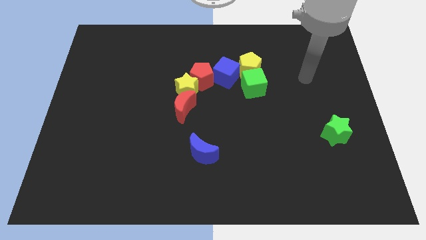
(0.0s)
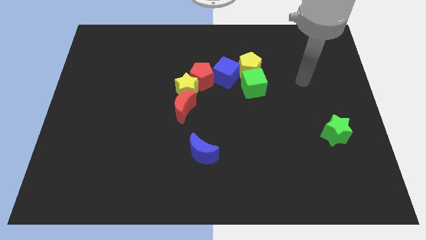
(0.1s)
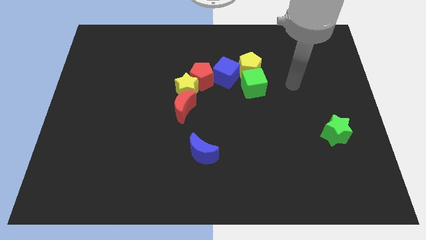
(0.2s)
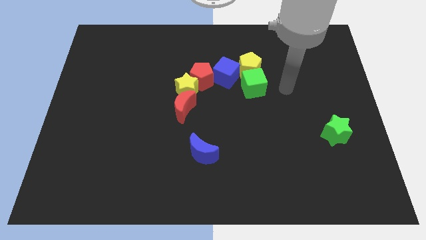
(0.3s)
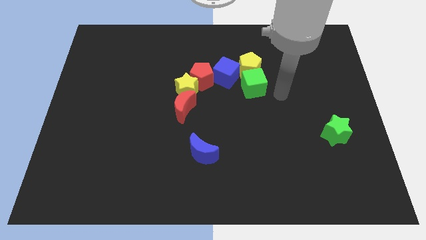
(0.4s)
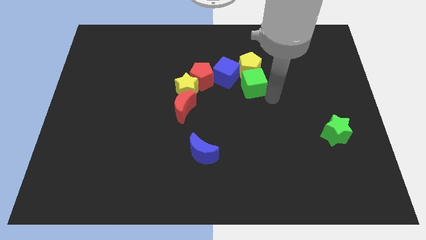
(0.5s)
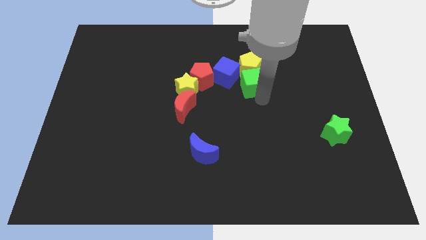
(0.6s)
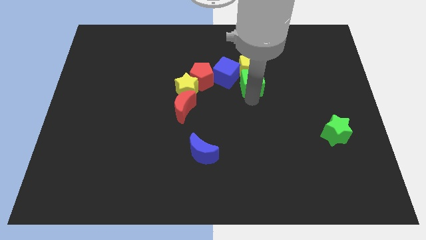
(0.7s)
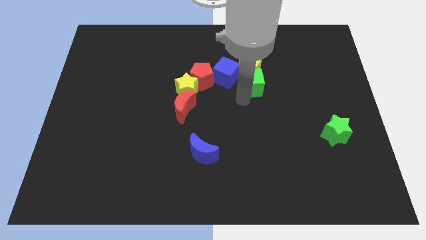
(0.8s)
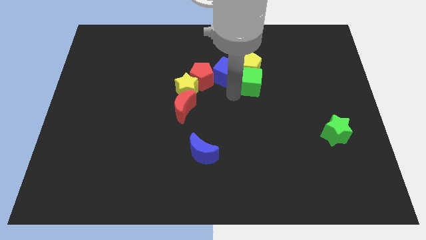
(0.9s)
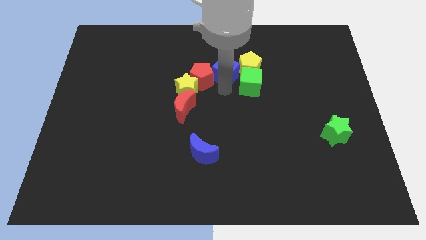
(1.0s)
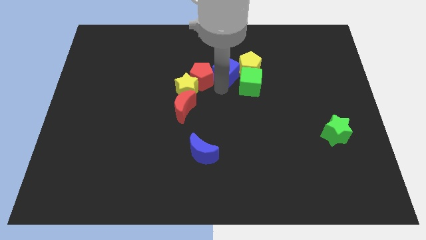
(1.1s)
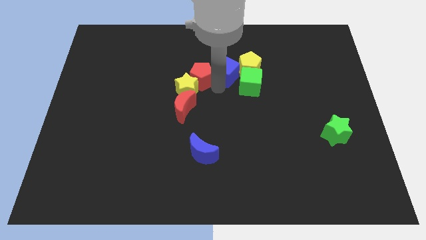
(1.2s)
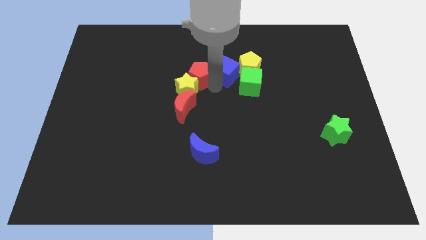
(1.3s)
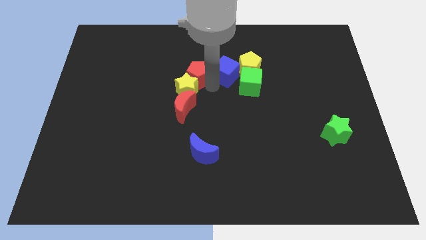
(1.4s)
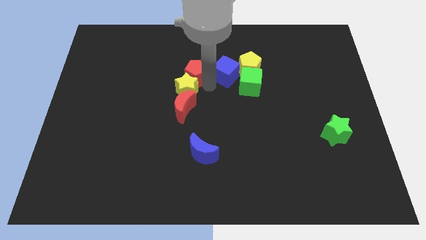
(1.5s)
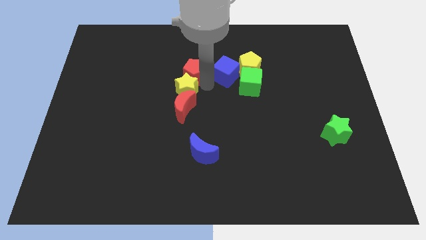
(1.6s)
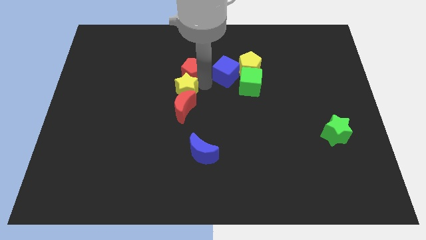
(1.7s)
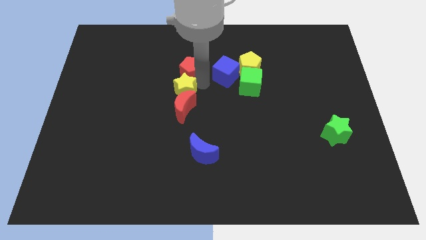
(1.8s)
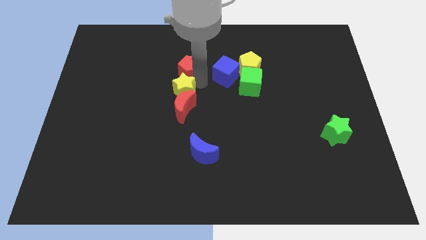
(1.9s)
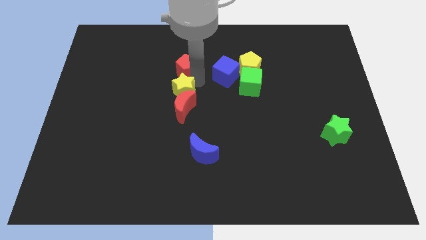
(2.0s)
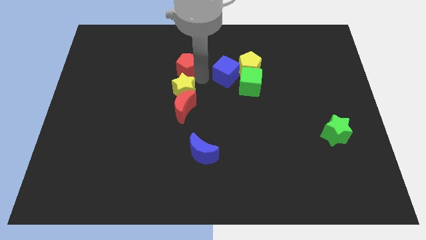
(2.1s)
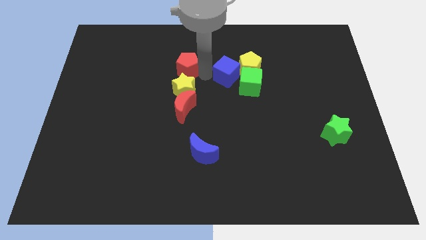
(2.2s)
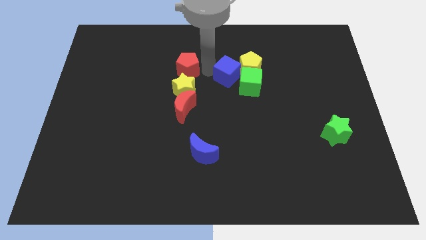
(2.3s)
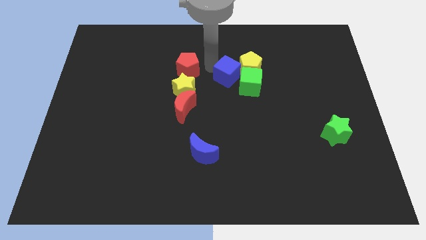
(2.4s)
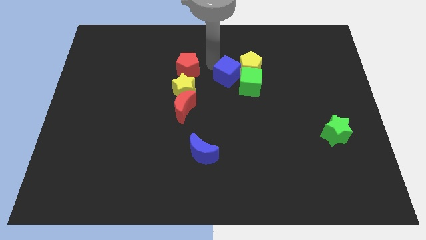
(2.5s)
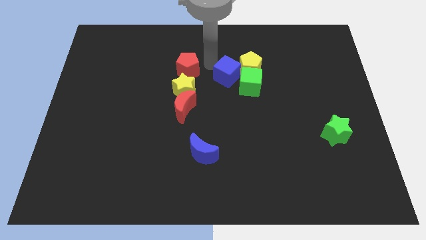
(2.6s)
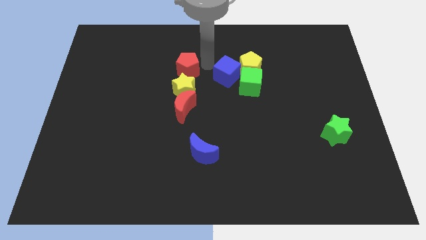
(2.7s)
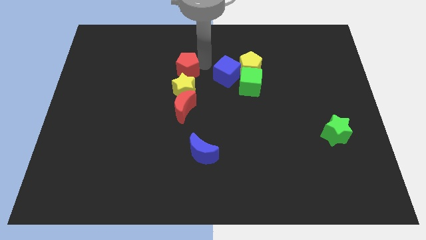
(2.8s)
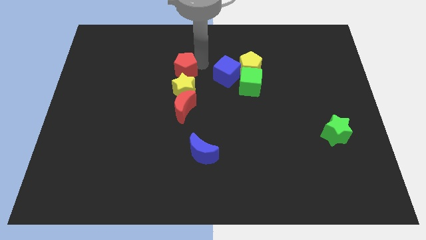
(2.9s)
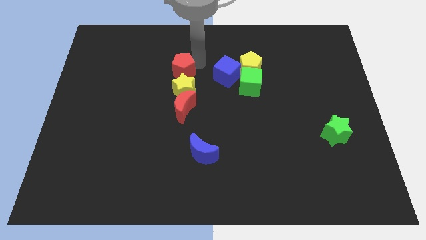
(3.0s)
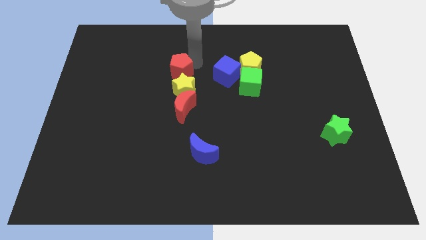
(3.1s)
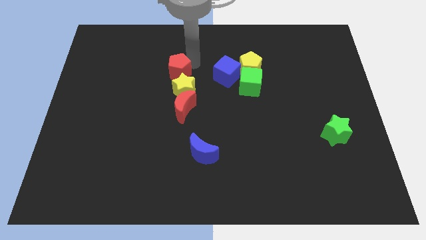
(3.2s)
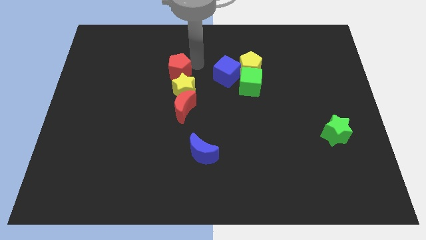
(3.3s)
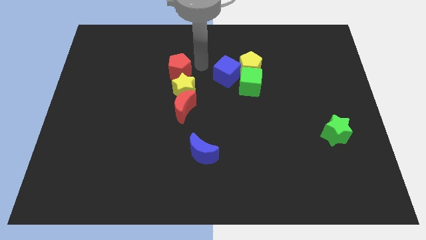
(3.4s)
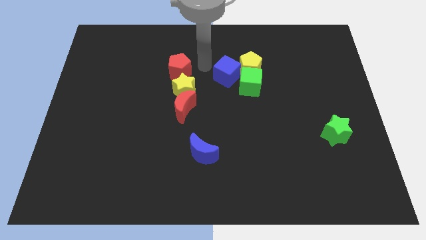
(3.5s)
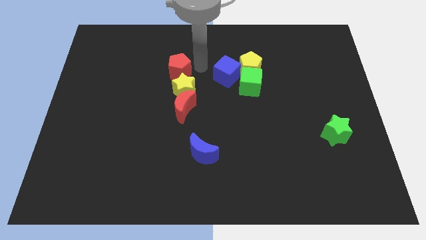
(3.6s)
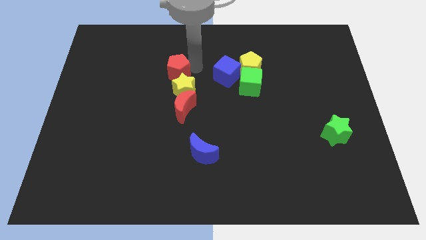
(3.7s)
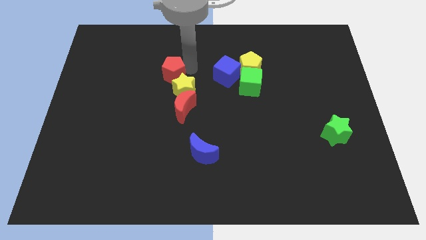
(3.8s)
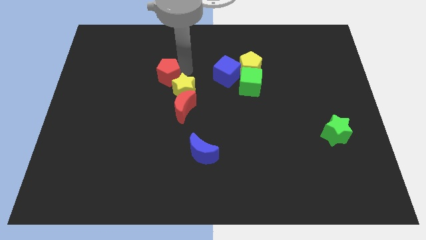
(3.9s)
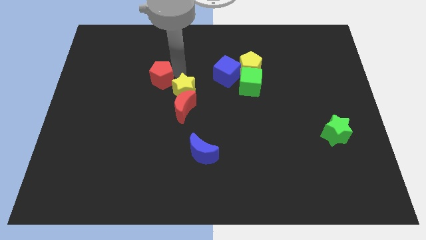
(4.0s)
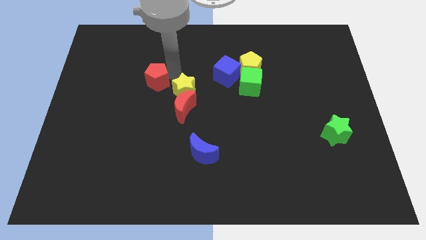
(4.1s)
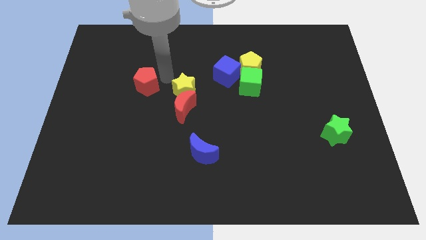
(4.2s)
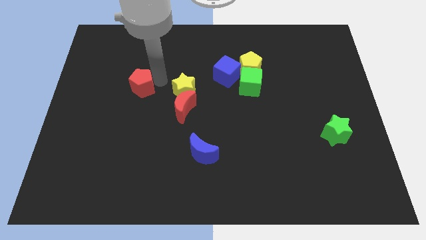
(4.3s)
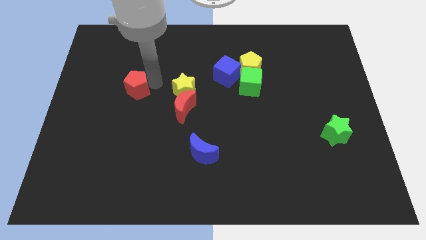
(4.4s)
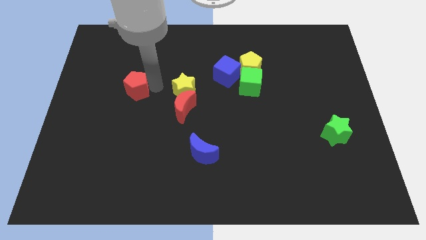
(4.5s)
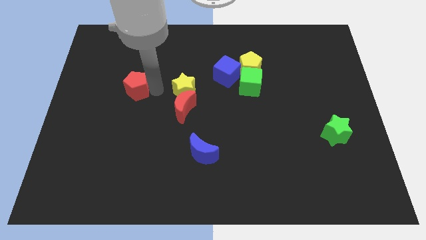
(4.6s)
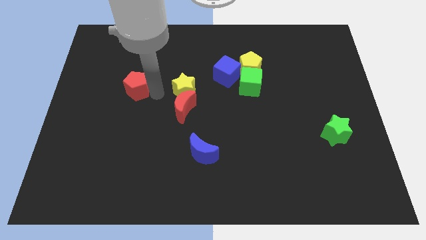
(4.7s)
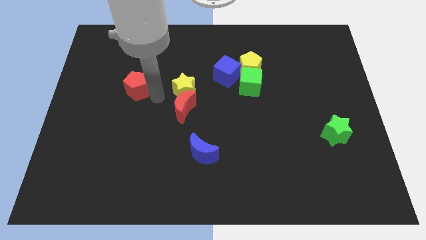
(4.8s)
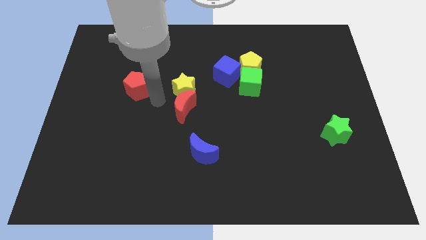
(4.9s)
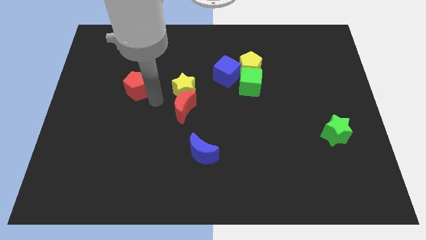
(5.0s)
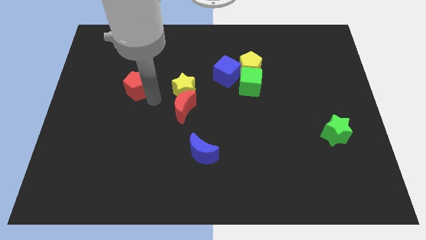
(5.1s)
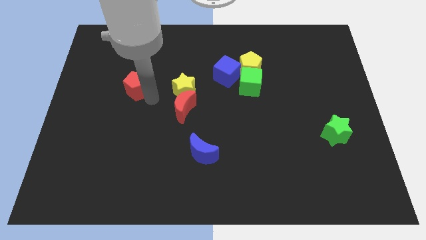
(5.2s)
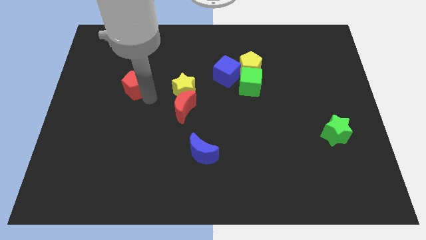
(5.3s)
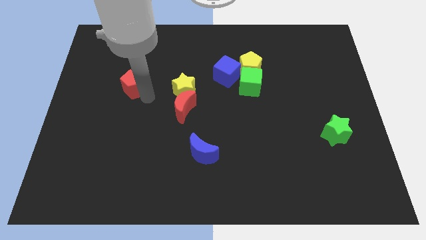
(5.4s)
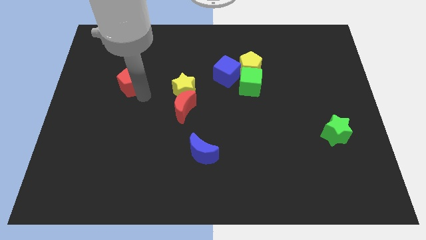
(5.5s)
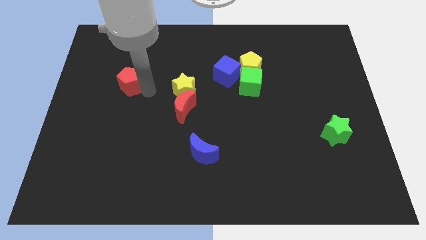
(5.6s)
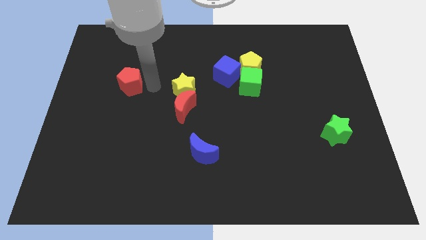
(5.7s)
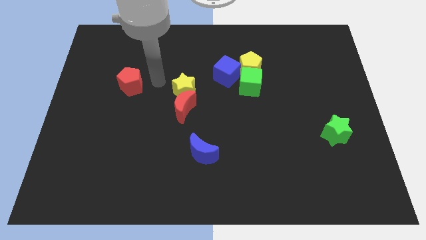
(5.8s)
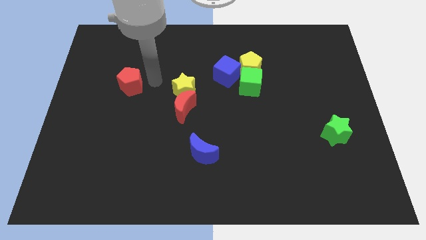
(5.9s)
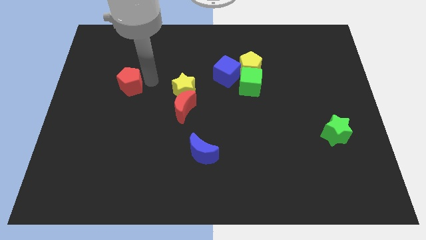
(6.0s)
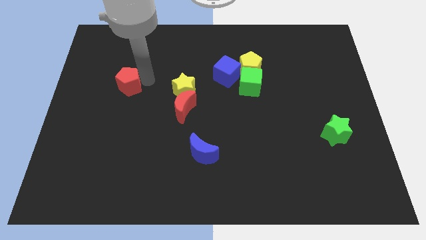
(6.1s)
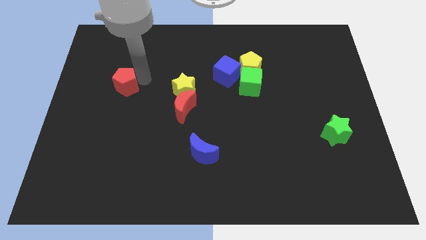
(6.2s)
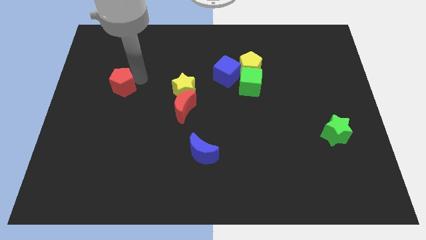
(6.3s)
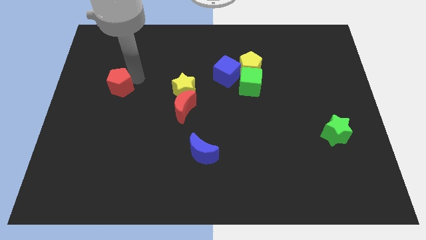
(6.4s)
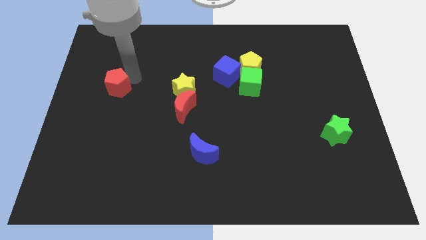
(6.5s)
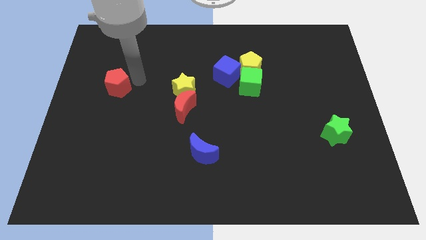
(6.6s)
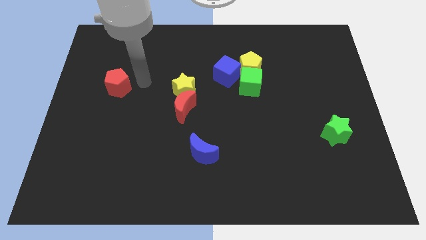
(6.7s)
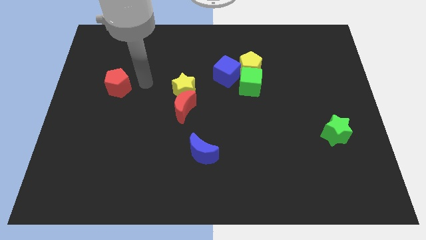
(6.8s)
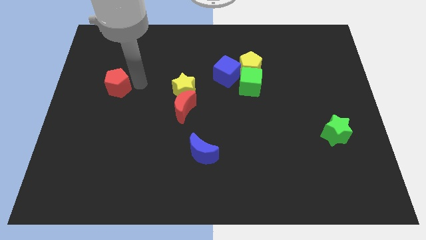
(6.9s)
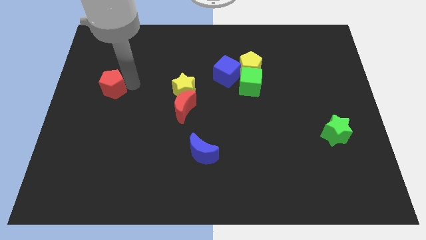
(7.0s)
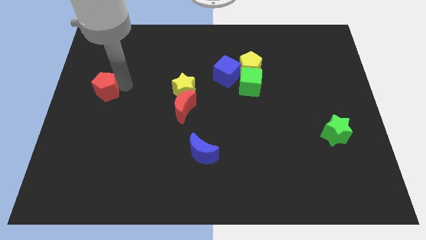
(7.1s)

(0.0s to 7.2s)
slide the red pentagon to the left side
